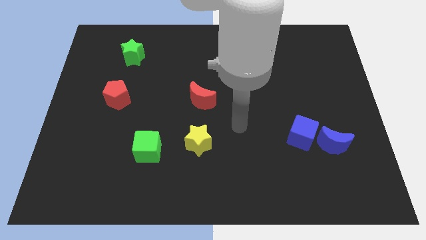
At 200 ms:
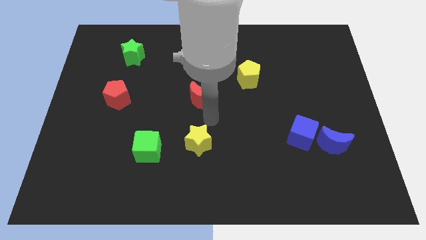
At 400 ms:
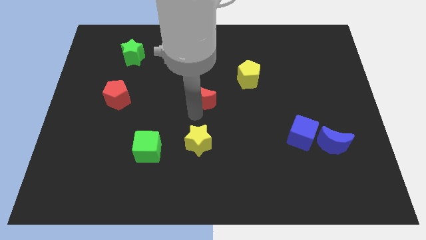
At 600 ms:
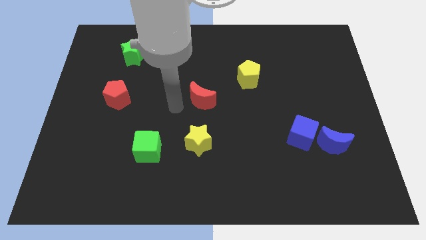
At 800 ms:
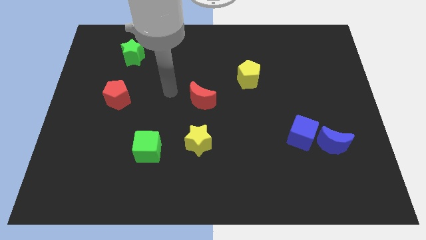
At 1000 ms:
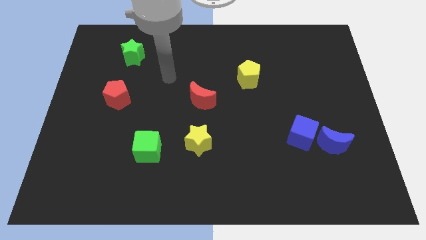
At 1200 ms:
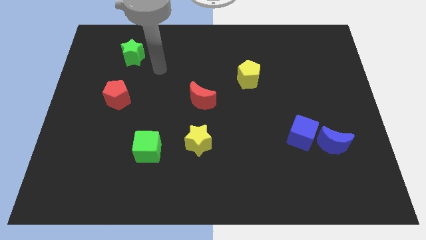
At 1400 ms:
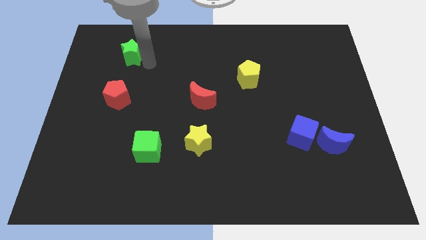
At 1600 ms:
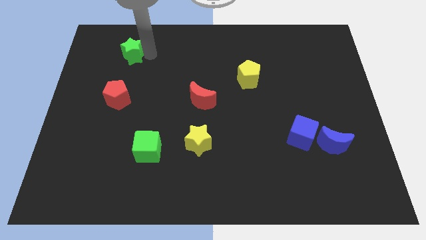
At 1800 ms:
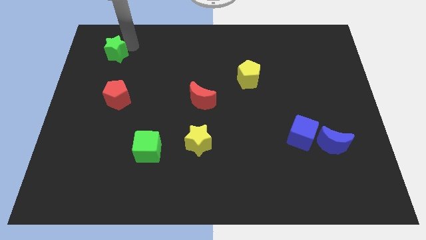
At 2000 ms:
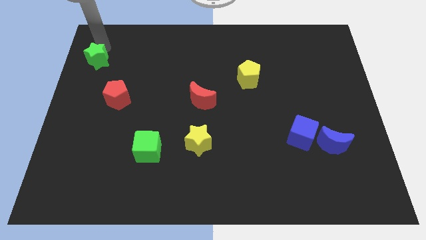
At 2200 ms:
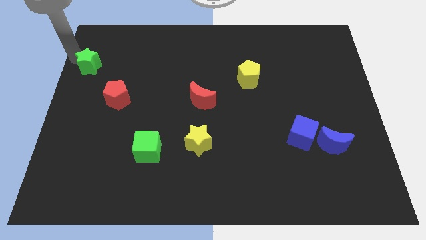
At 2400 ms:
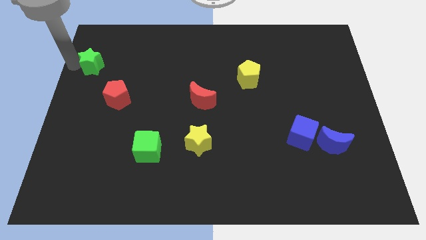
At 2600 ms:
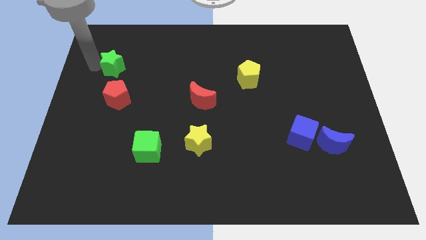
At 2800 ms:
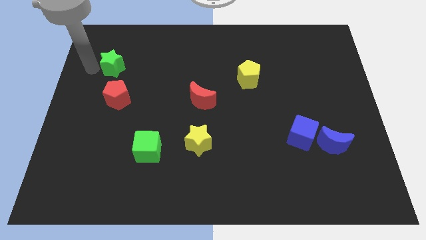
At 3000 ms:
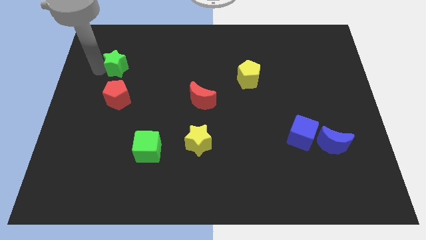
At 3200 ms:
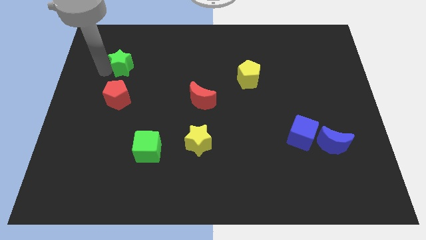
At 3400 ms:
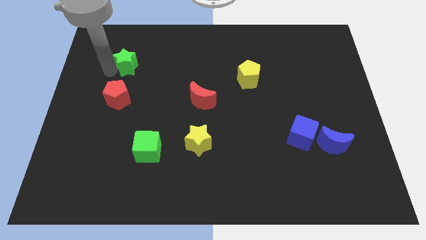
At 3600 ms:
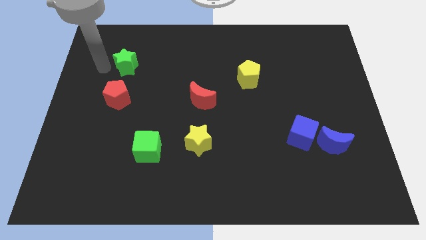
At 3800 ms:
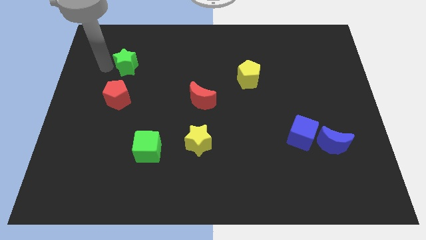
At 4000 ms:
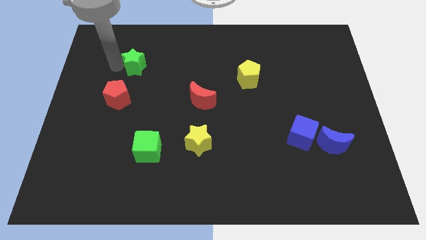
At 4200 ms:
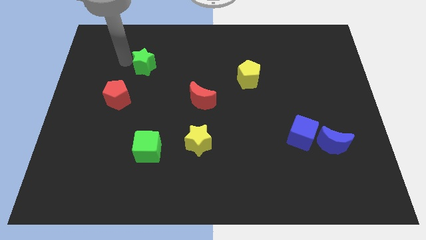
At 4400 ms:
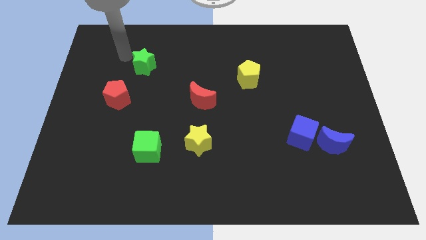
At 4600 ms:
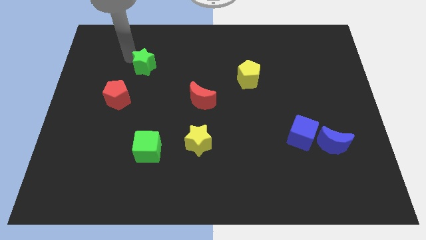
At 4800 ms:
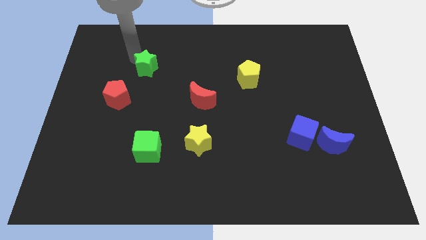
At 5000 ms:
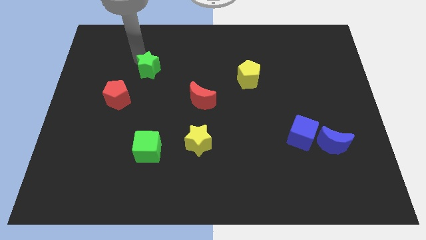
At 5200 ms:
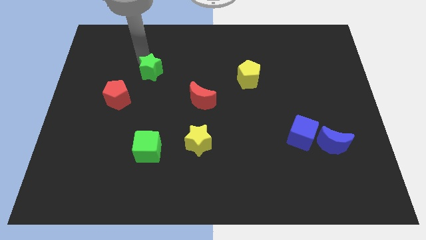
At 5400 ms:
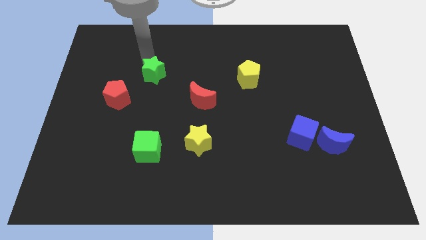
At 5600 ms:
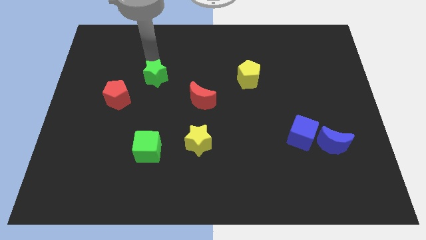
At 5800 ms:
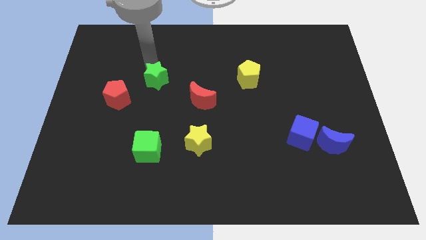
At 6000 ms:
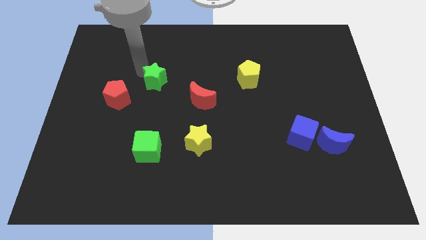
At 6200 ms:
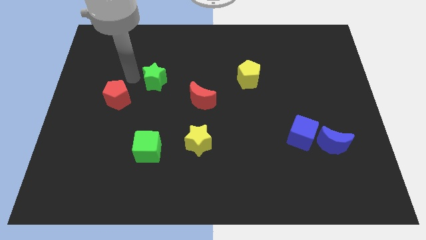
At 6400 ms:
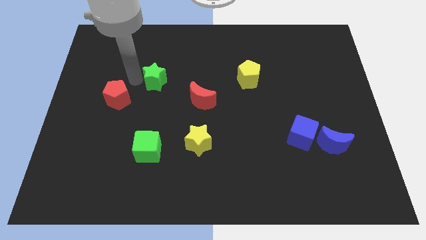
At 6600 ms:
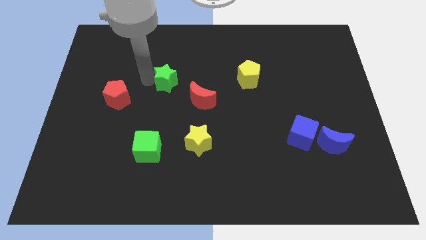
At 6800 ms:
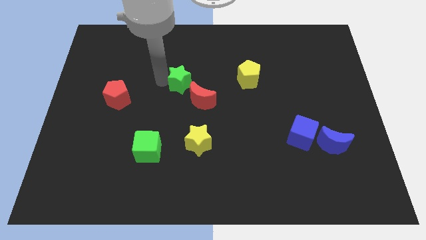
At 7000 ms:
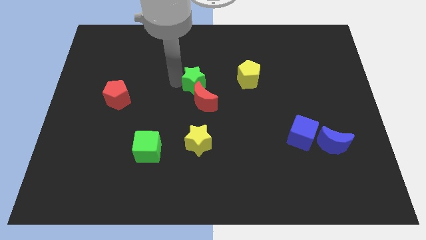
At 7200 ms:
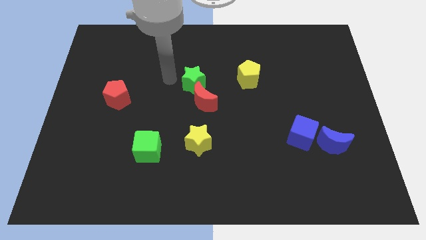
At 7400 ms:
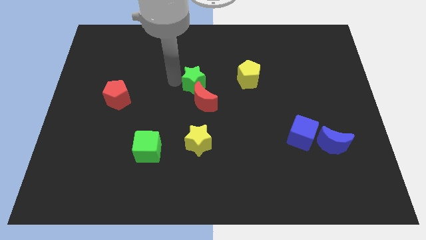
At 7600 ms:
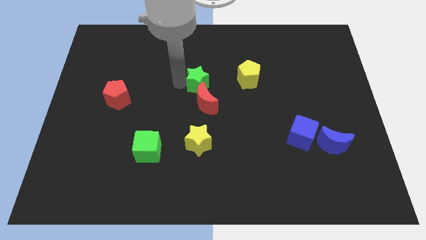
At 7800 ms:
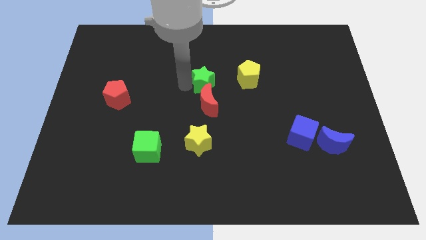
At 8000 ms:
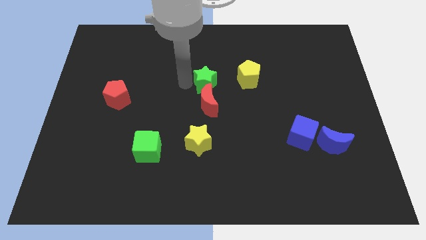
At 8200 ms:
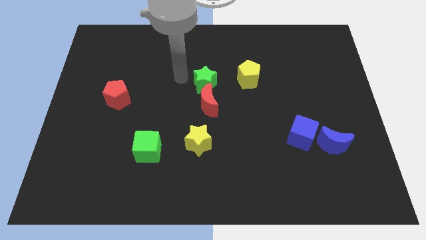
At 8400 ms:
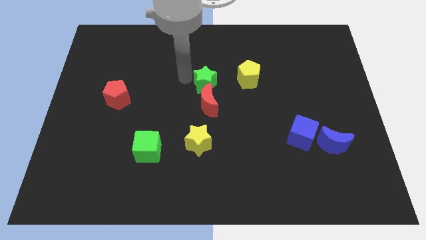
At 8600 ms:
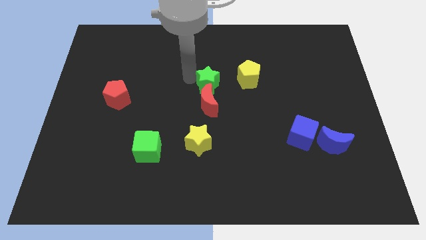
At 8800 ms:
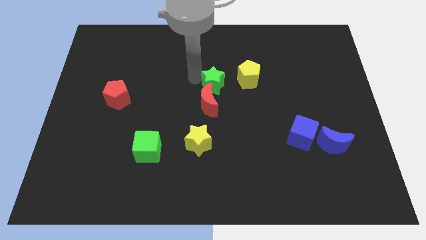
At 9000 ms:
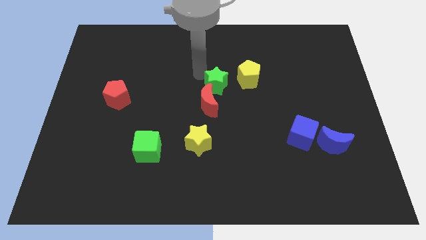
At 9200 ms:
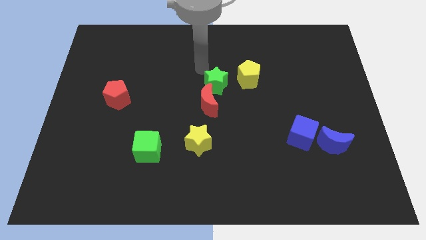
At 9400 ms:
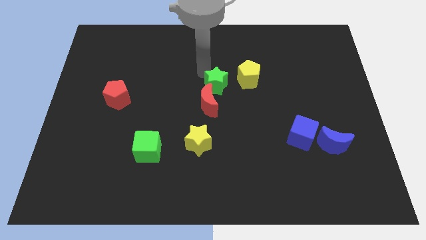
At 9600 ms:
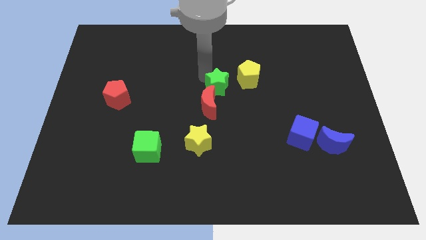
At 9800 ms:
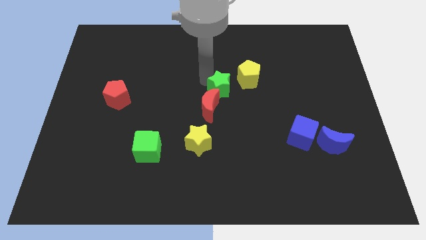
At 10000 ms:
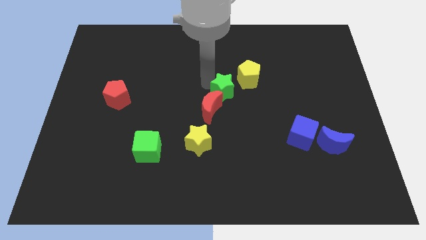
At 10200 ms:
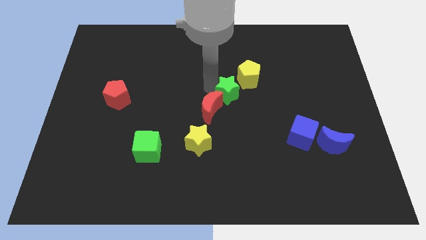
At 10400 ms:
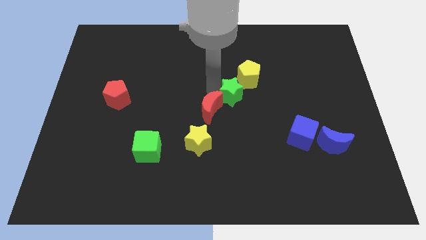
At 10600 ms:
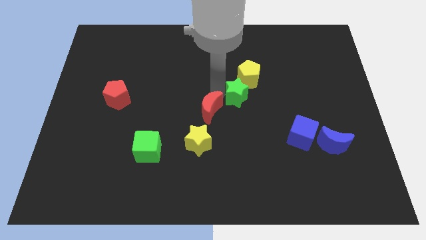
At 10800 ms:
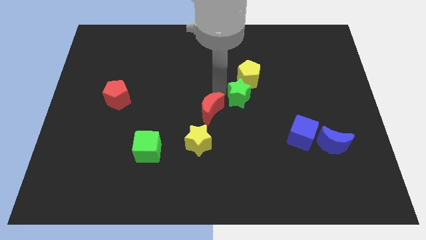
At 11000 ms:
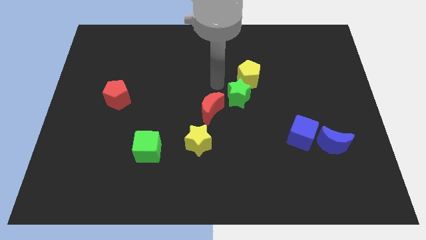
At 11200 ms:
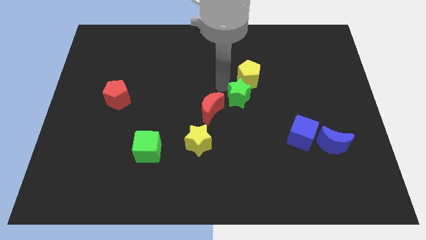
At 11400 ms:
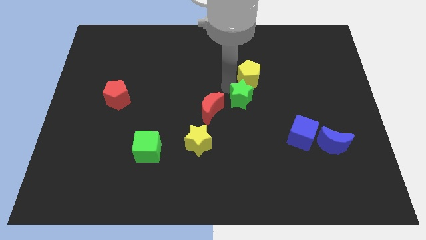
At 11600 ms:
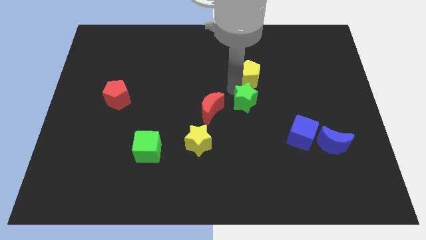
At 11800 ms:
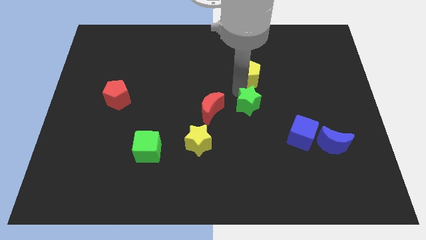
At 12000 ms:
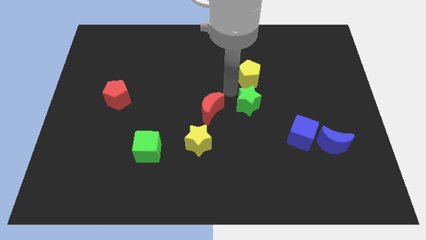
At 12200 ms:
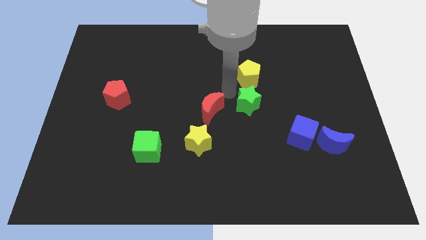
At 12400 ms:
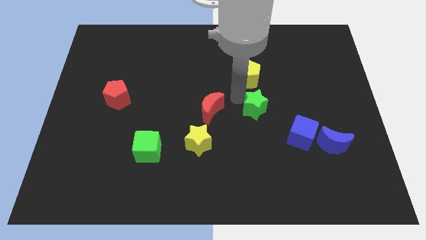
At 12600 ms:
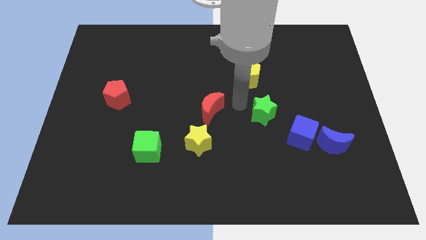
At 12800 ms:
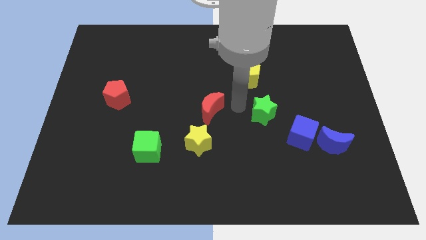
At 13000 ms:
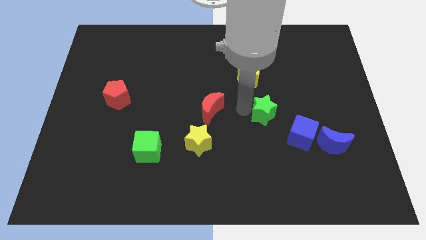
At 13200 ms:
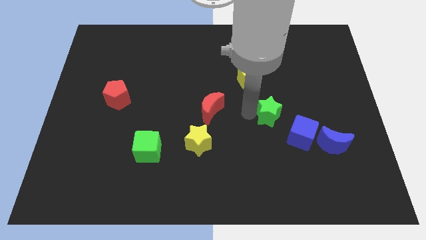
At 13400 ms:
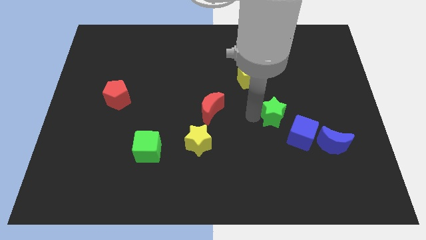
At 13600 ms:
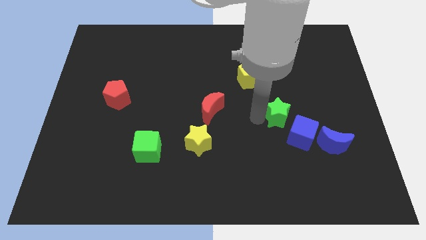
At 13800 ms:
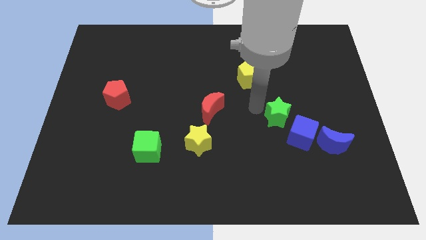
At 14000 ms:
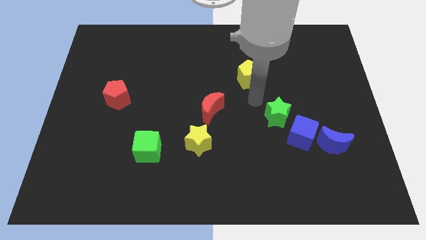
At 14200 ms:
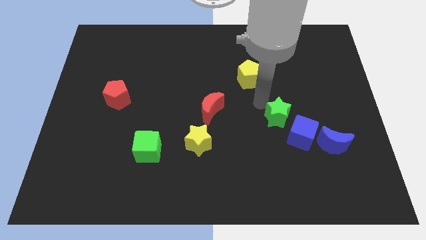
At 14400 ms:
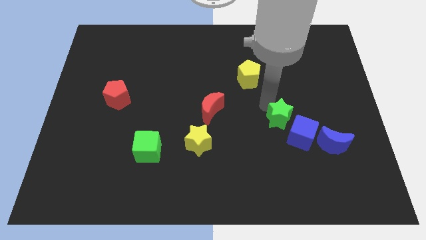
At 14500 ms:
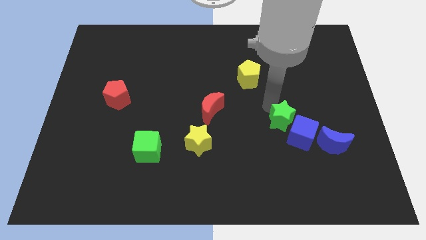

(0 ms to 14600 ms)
push the green star to the blue cube

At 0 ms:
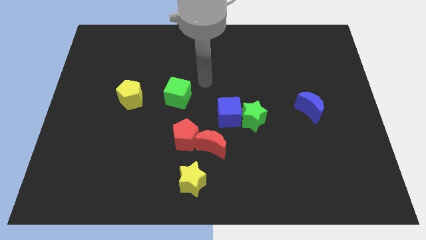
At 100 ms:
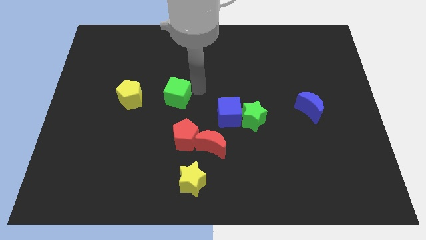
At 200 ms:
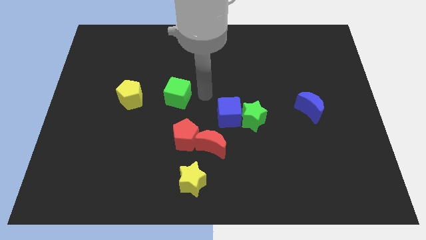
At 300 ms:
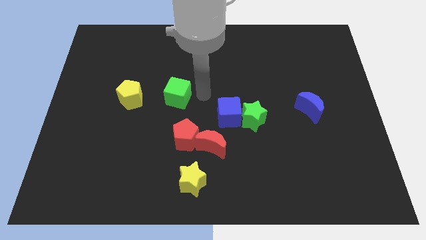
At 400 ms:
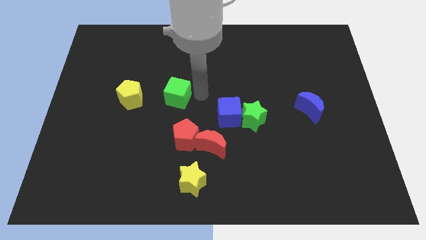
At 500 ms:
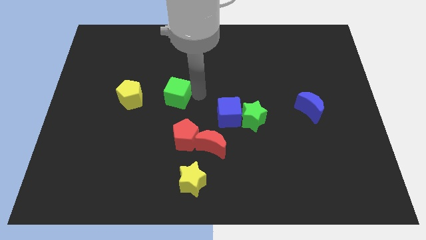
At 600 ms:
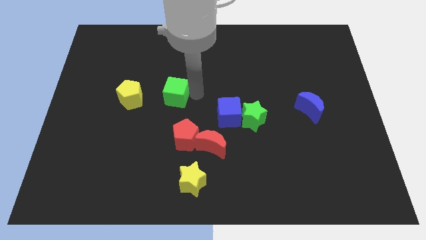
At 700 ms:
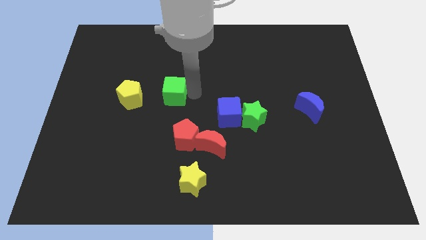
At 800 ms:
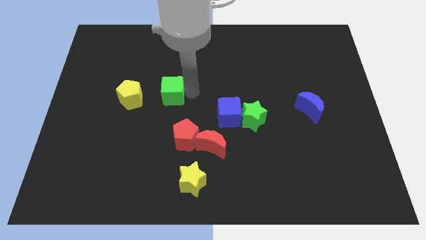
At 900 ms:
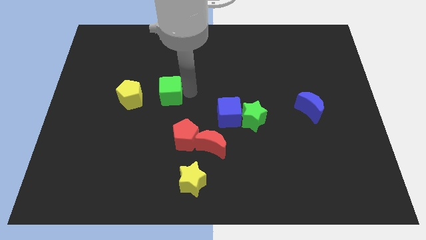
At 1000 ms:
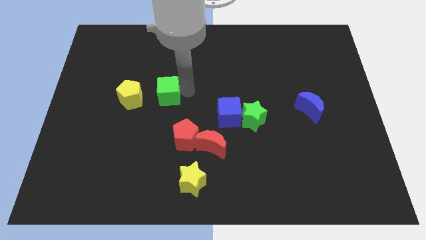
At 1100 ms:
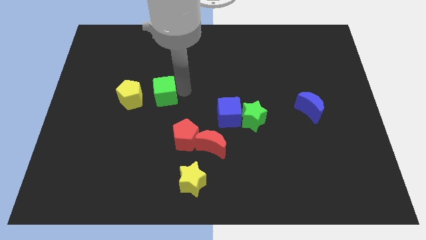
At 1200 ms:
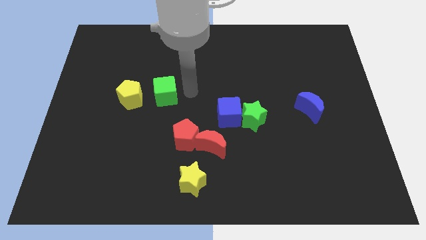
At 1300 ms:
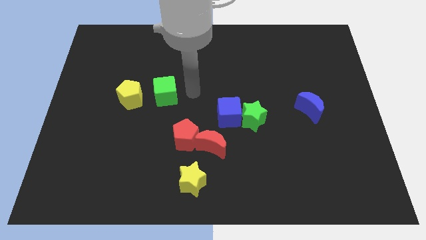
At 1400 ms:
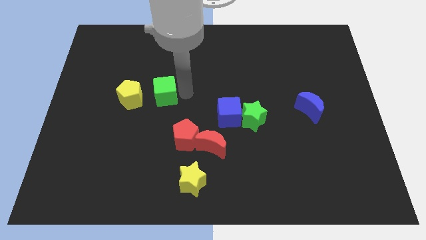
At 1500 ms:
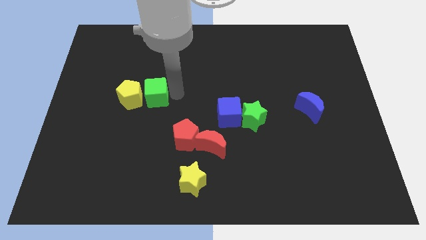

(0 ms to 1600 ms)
slide the green cube to the yellow pentagon
